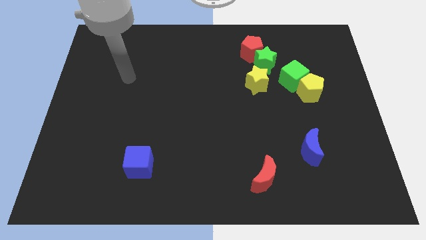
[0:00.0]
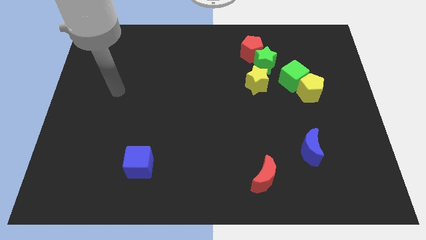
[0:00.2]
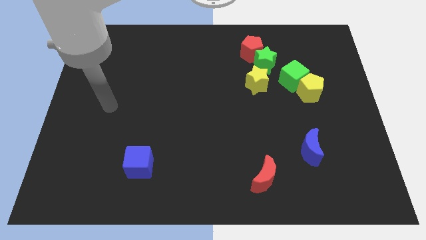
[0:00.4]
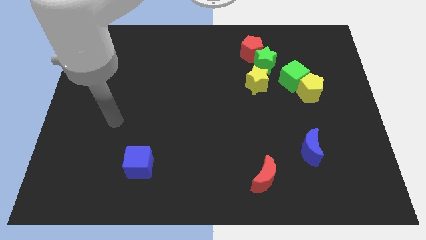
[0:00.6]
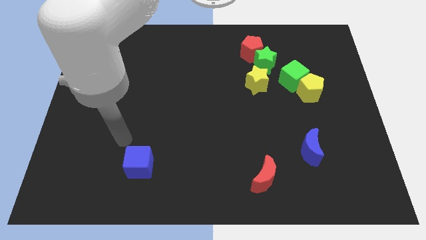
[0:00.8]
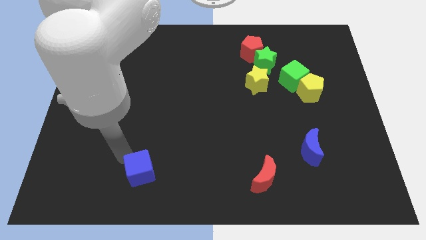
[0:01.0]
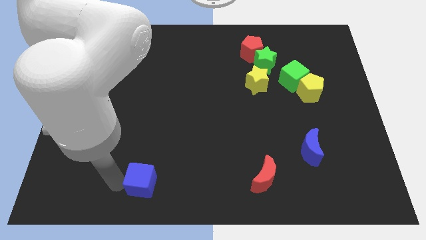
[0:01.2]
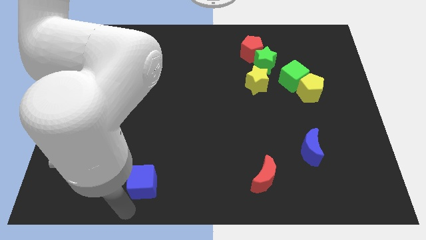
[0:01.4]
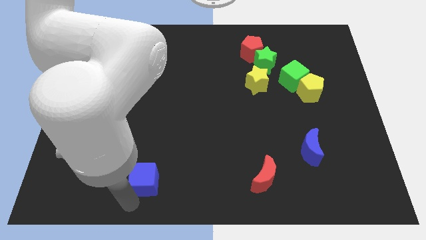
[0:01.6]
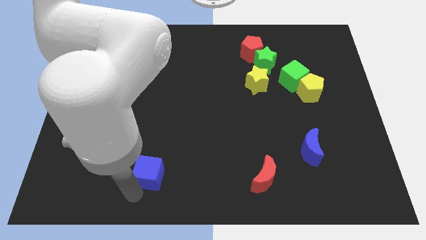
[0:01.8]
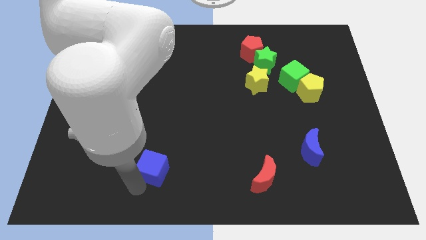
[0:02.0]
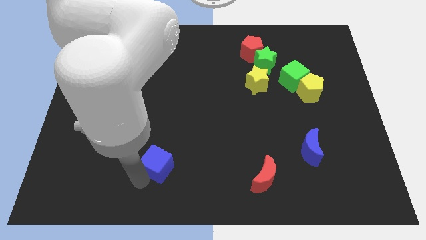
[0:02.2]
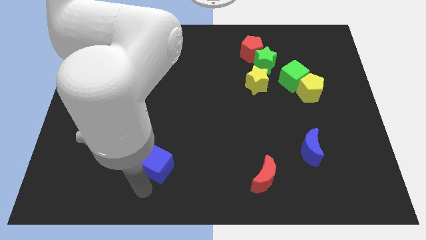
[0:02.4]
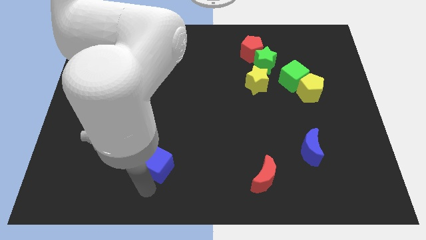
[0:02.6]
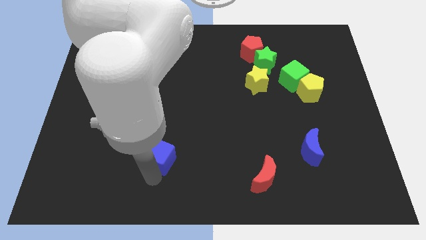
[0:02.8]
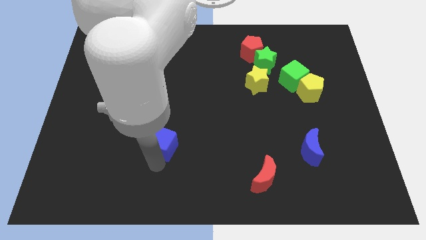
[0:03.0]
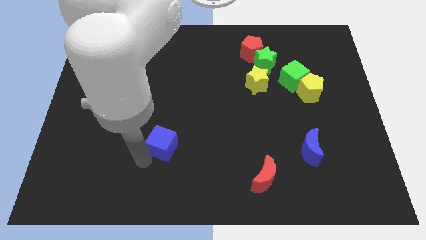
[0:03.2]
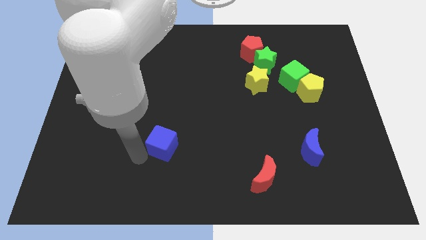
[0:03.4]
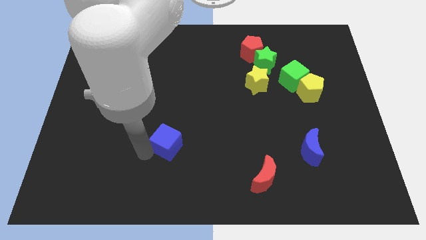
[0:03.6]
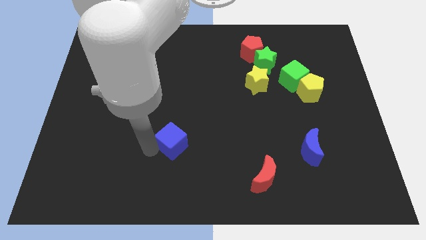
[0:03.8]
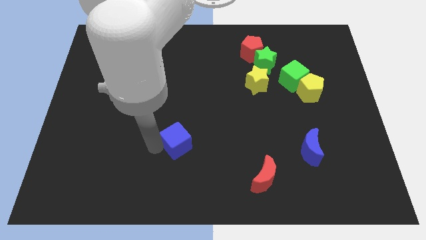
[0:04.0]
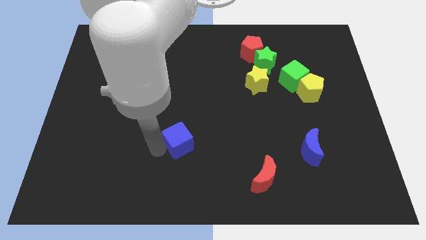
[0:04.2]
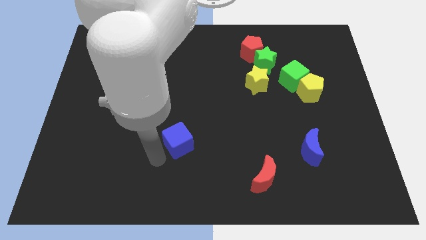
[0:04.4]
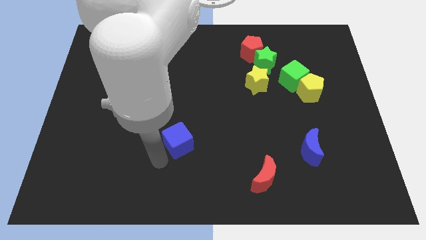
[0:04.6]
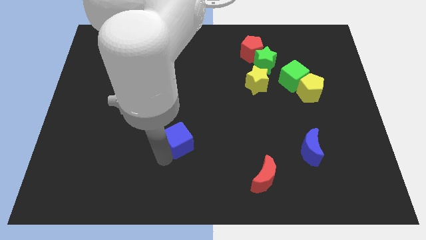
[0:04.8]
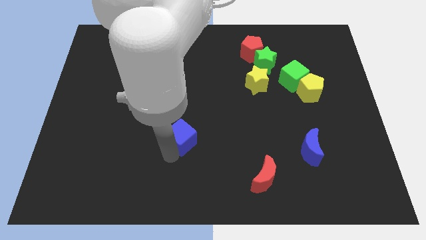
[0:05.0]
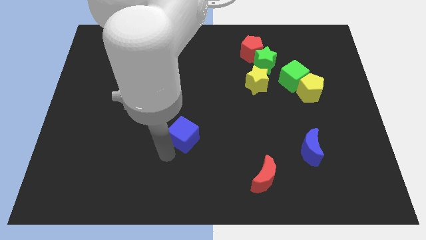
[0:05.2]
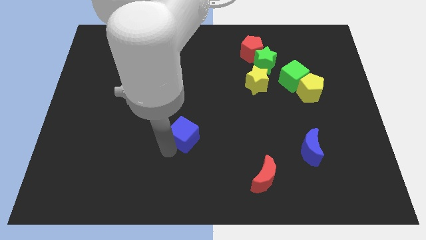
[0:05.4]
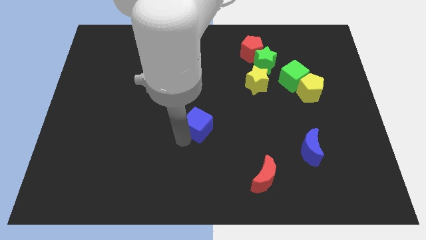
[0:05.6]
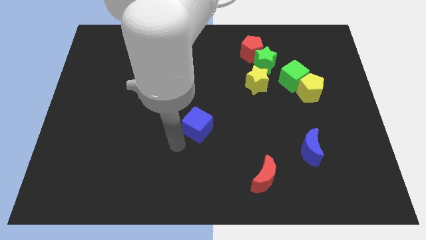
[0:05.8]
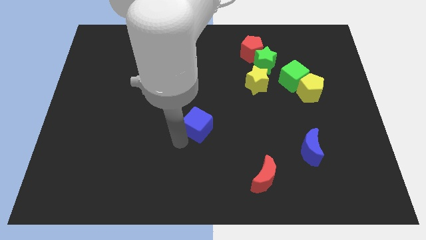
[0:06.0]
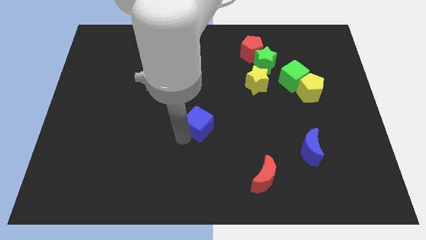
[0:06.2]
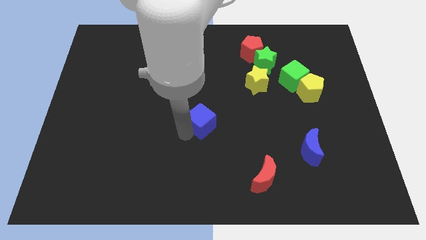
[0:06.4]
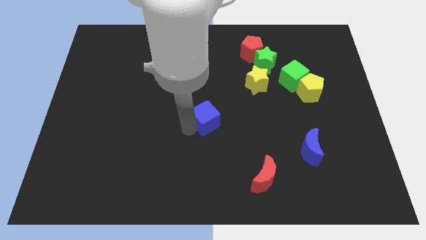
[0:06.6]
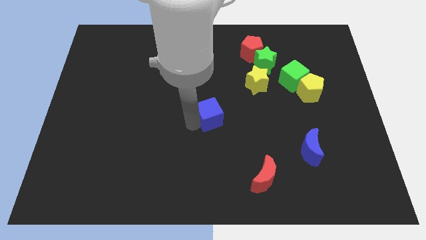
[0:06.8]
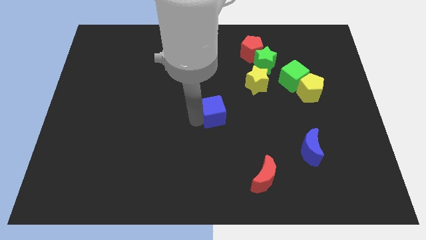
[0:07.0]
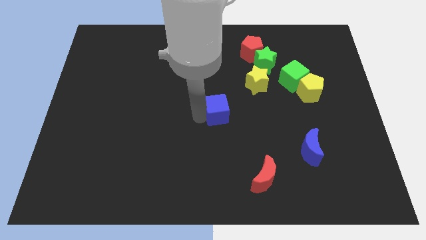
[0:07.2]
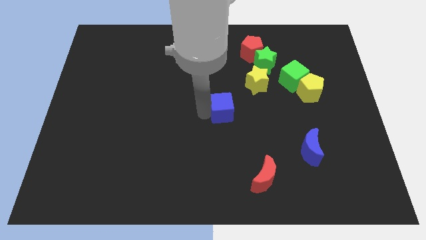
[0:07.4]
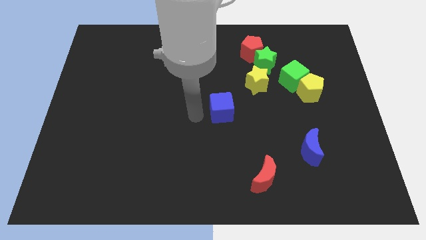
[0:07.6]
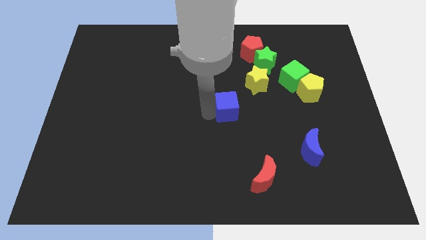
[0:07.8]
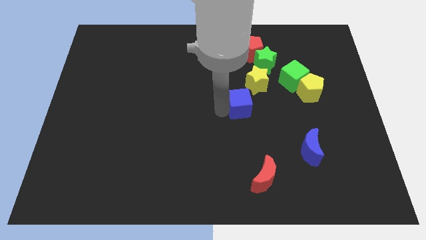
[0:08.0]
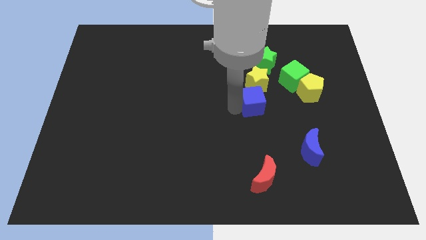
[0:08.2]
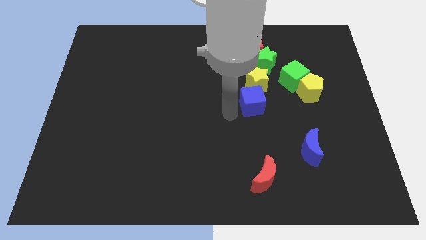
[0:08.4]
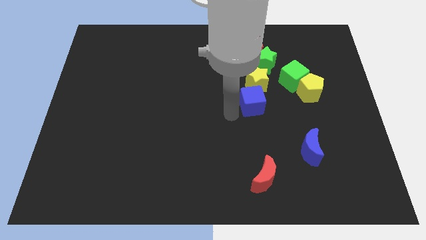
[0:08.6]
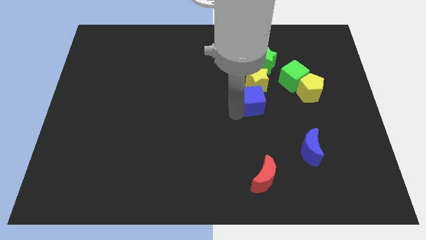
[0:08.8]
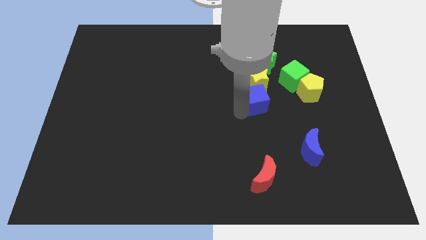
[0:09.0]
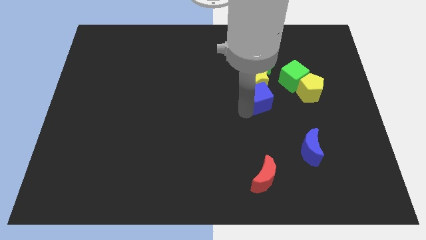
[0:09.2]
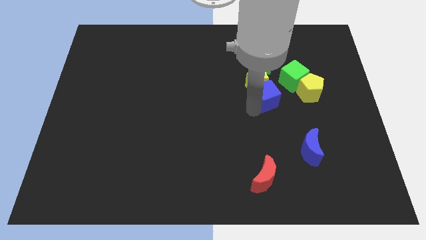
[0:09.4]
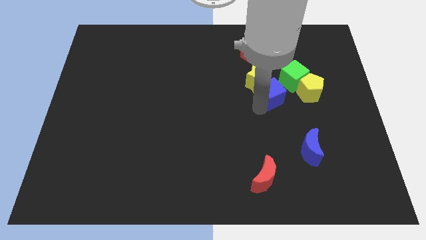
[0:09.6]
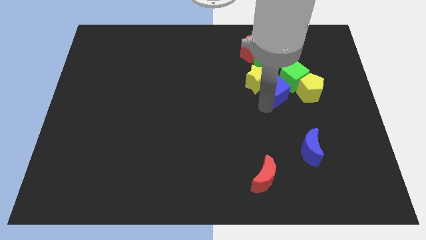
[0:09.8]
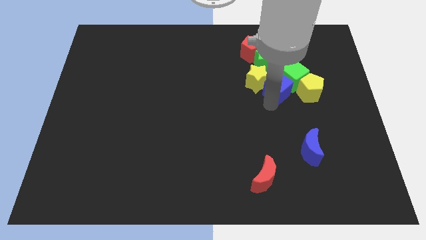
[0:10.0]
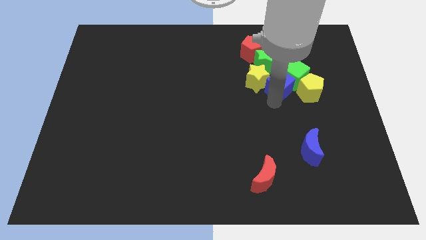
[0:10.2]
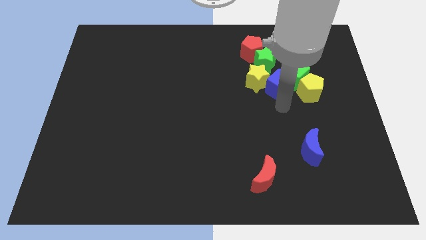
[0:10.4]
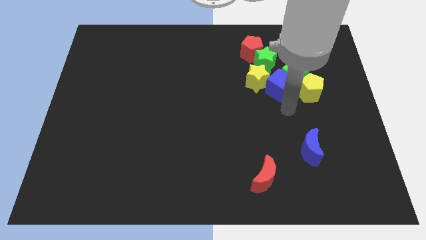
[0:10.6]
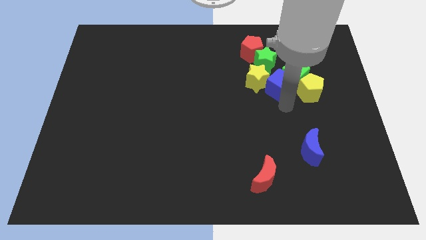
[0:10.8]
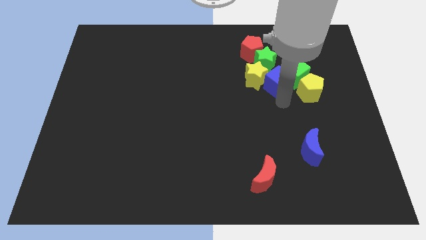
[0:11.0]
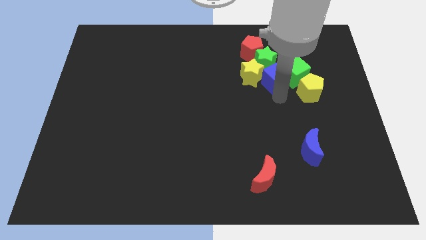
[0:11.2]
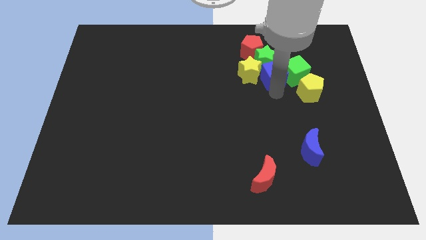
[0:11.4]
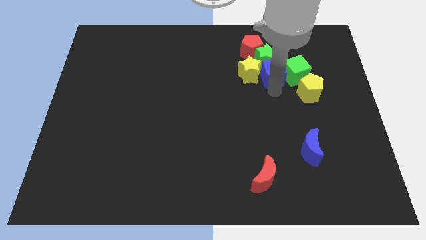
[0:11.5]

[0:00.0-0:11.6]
slide the blue cube diagonally up and to the right of the yellow star
